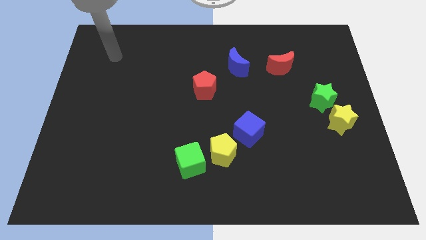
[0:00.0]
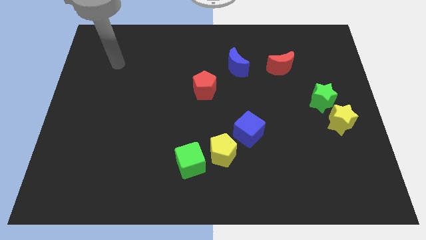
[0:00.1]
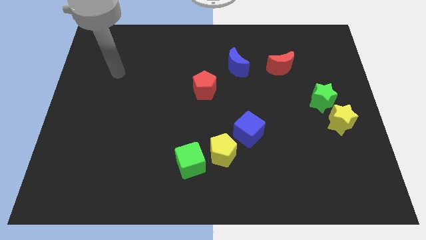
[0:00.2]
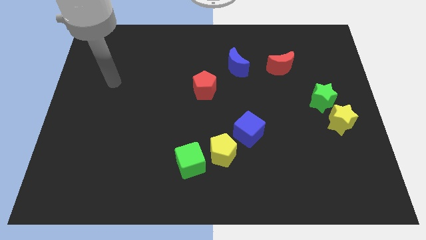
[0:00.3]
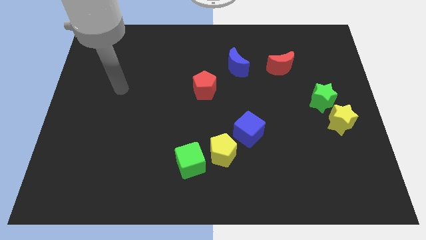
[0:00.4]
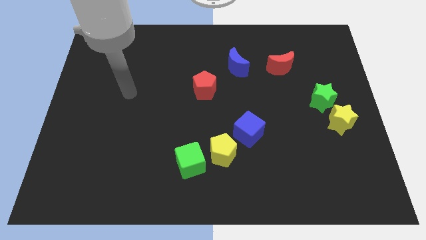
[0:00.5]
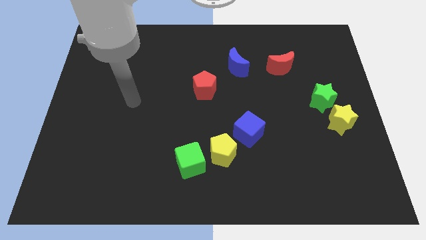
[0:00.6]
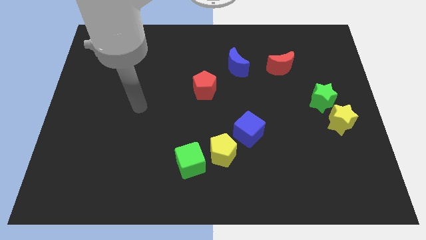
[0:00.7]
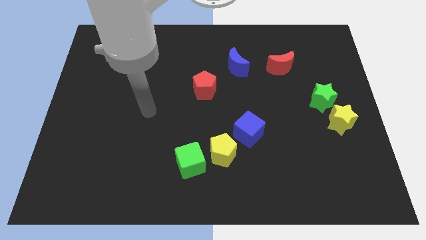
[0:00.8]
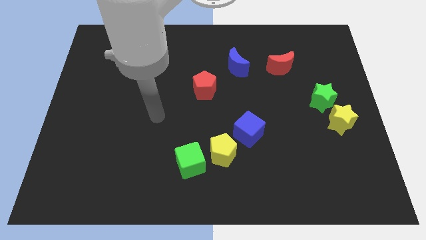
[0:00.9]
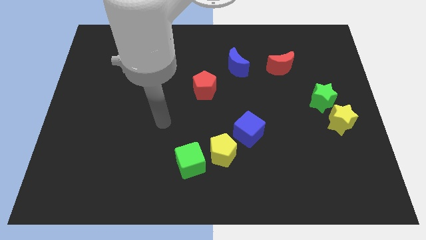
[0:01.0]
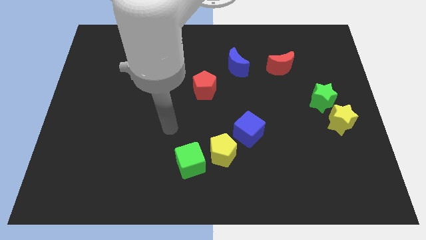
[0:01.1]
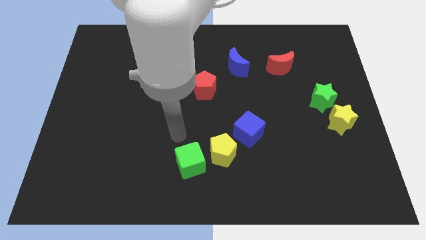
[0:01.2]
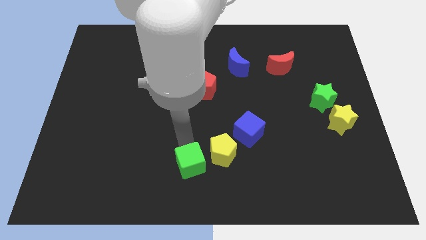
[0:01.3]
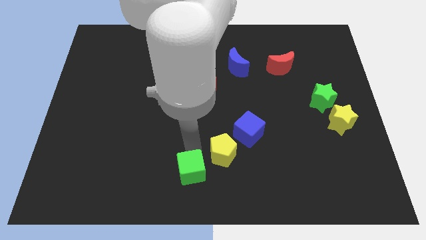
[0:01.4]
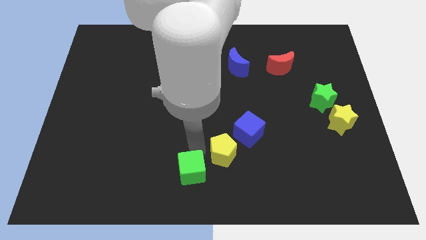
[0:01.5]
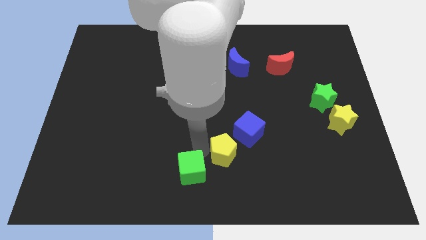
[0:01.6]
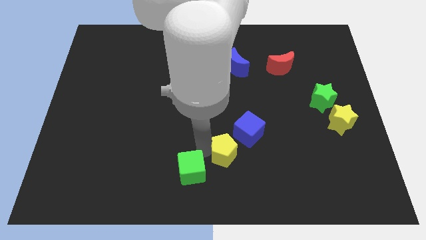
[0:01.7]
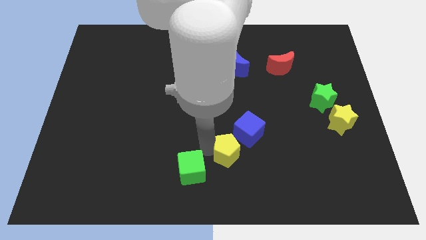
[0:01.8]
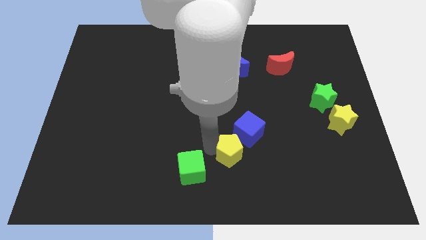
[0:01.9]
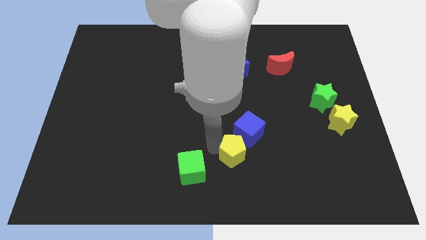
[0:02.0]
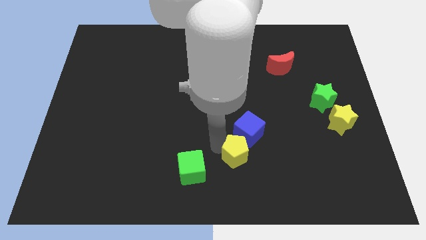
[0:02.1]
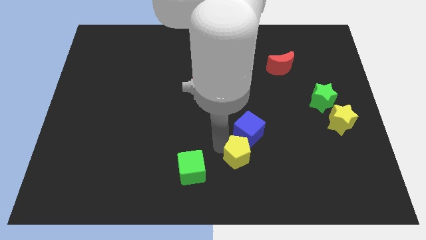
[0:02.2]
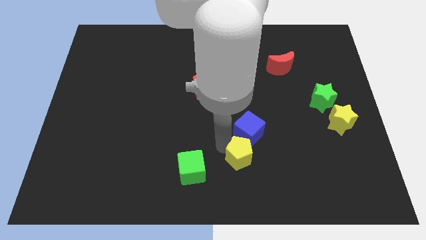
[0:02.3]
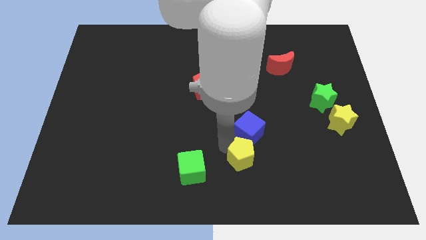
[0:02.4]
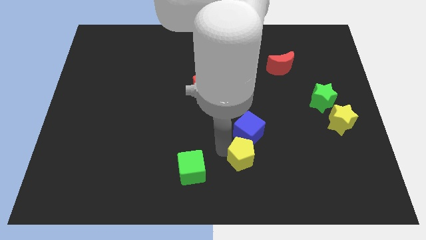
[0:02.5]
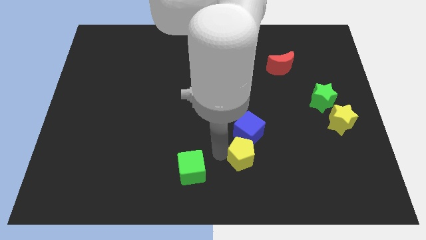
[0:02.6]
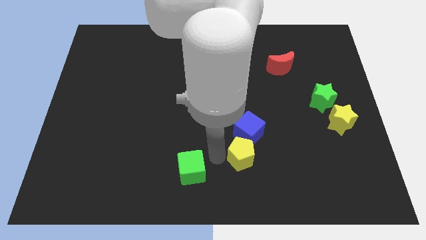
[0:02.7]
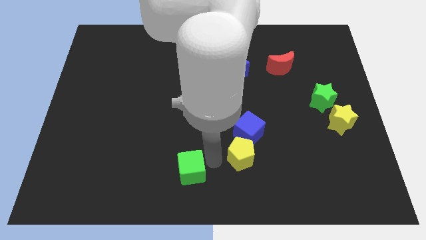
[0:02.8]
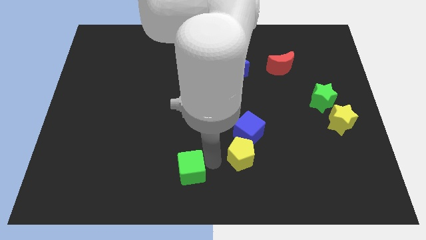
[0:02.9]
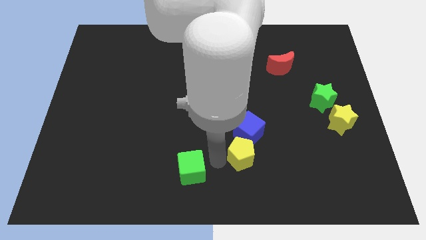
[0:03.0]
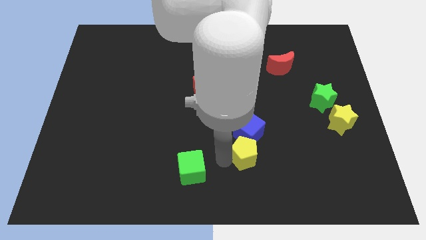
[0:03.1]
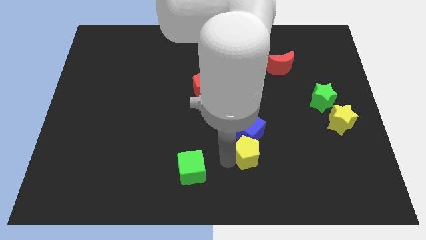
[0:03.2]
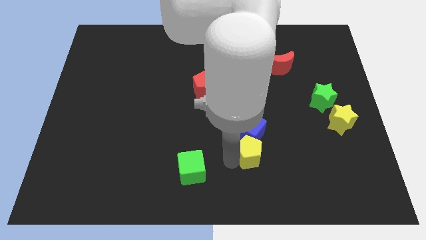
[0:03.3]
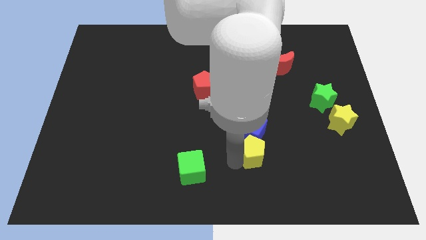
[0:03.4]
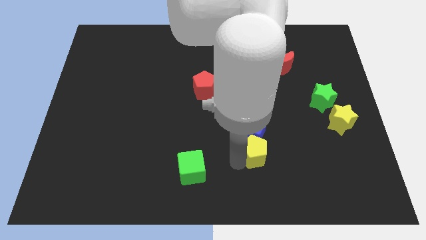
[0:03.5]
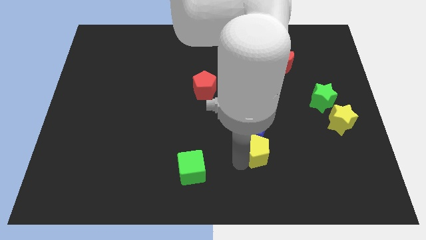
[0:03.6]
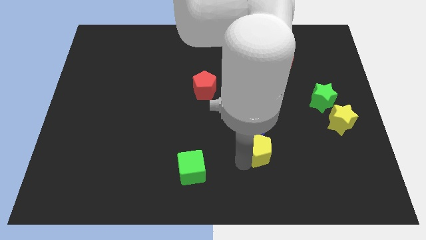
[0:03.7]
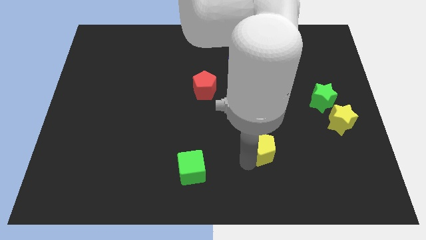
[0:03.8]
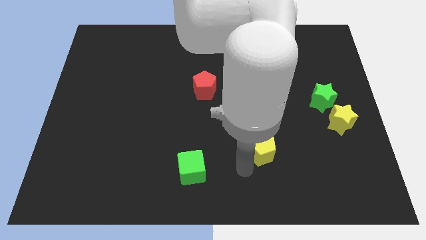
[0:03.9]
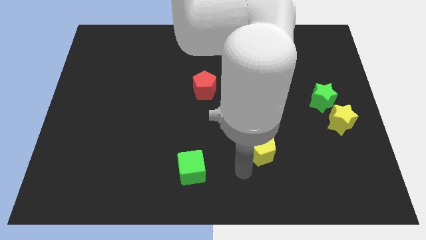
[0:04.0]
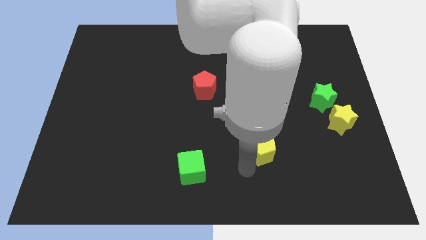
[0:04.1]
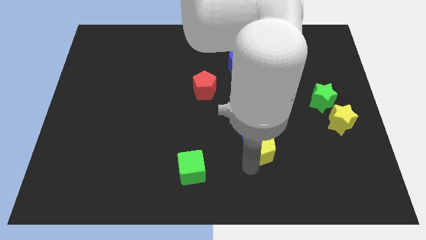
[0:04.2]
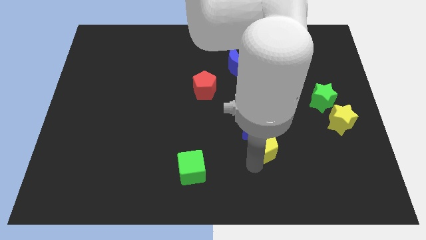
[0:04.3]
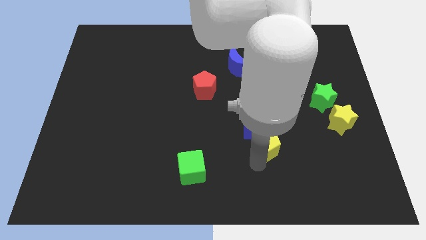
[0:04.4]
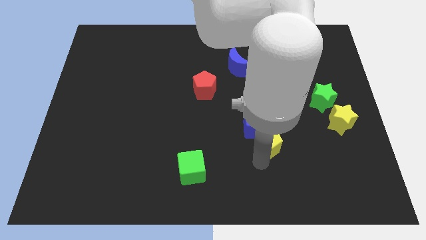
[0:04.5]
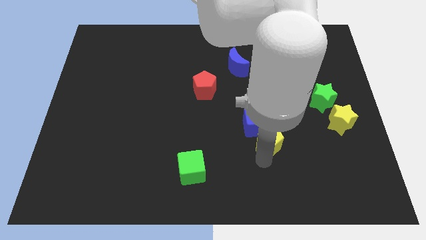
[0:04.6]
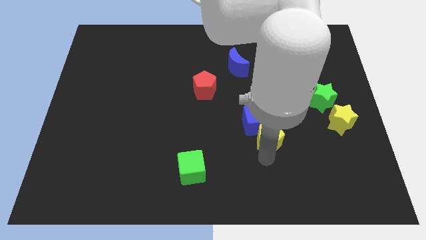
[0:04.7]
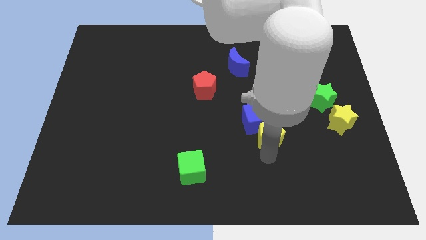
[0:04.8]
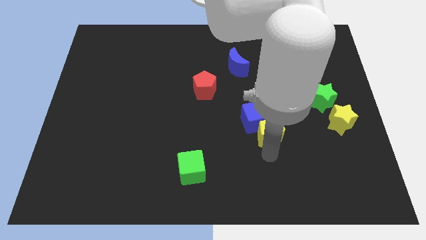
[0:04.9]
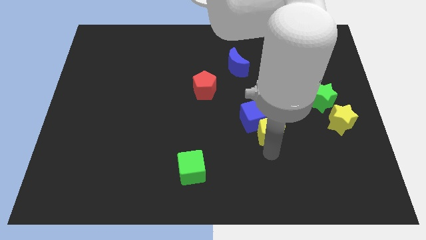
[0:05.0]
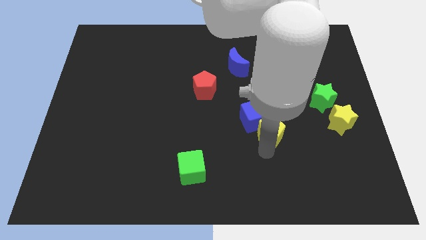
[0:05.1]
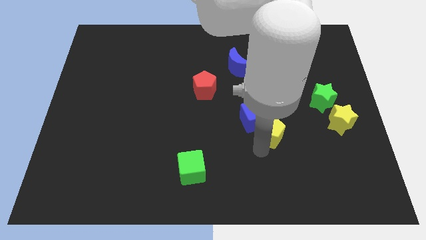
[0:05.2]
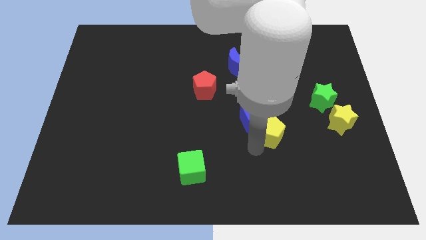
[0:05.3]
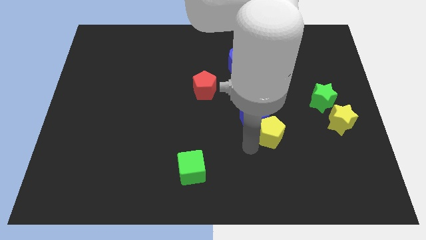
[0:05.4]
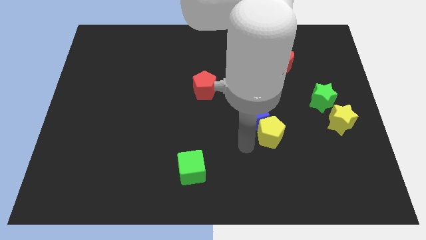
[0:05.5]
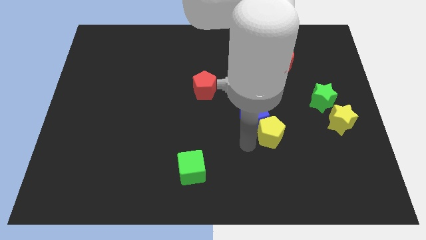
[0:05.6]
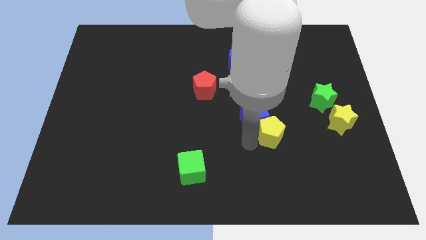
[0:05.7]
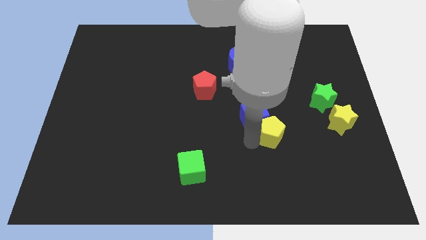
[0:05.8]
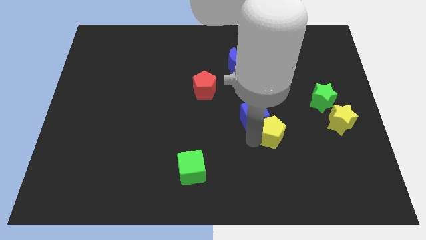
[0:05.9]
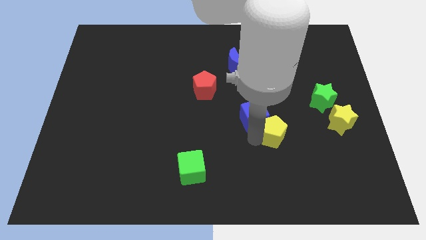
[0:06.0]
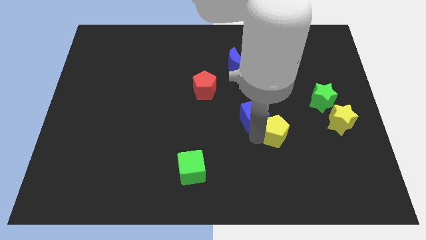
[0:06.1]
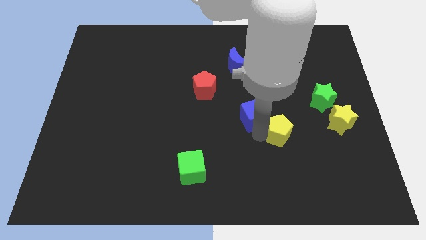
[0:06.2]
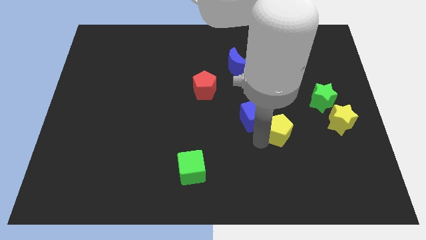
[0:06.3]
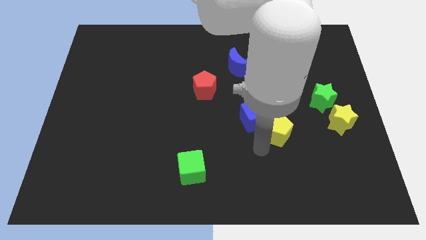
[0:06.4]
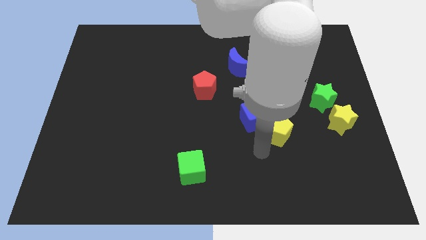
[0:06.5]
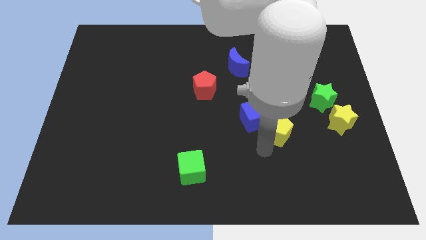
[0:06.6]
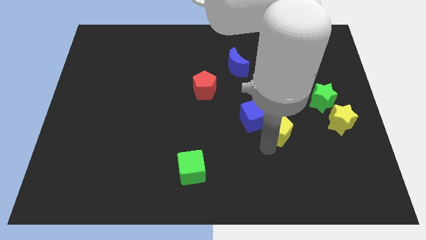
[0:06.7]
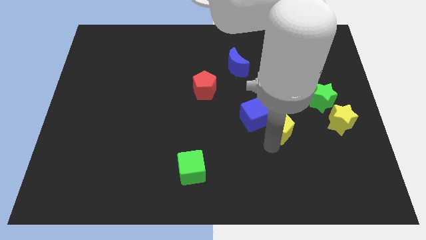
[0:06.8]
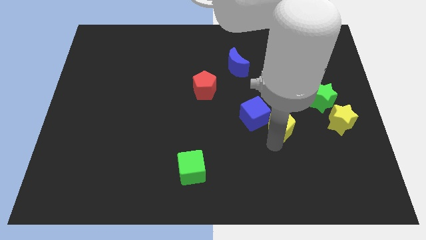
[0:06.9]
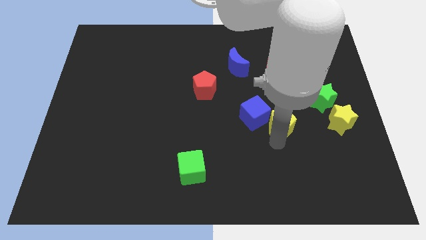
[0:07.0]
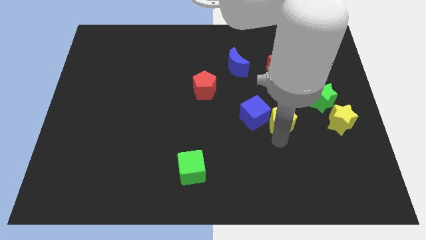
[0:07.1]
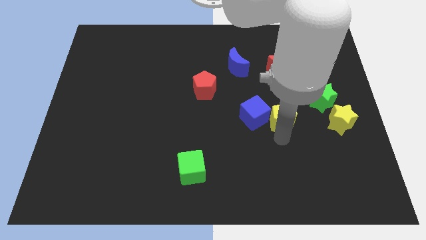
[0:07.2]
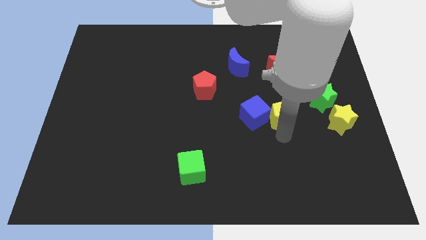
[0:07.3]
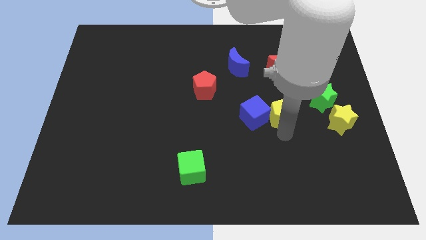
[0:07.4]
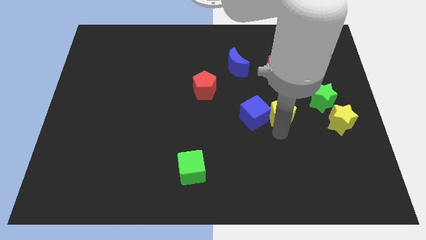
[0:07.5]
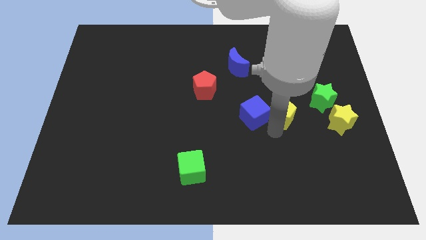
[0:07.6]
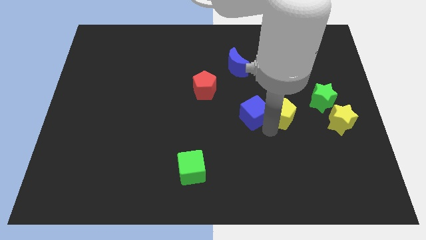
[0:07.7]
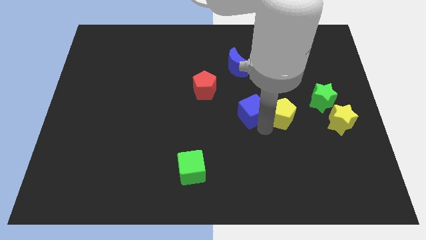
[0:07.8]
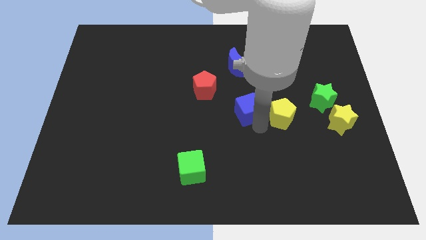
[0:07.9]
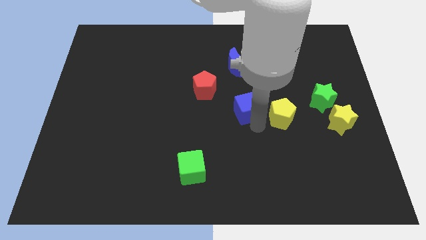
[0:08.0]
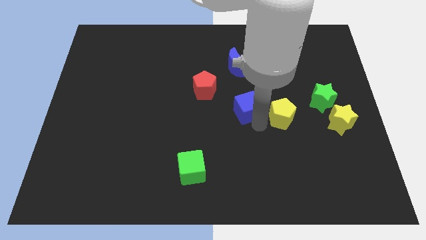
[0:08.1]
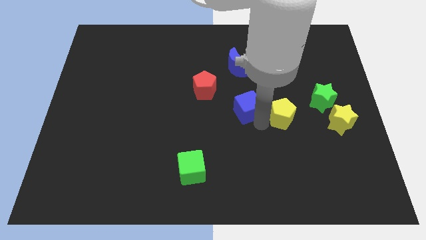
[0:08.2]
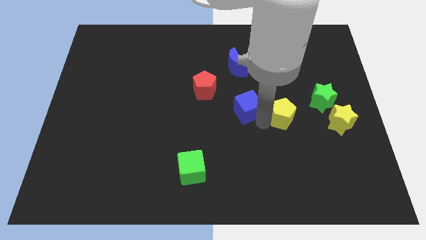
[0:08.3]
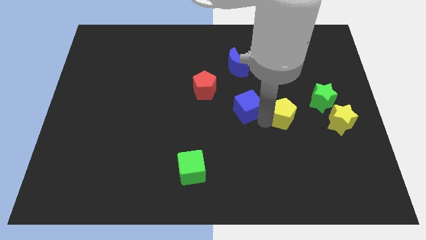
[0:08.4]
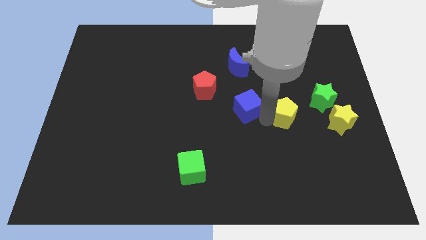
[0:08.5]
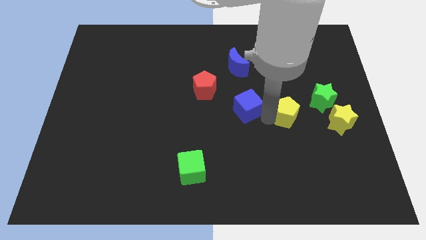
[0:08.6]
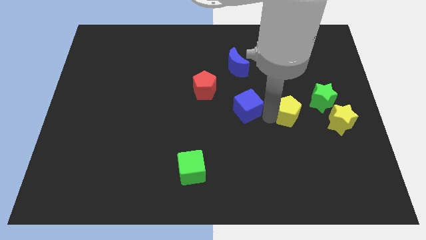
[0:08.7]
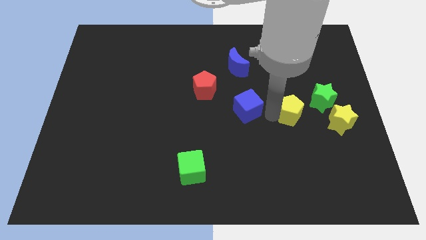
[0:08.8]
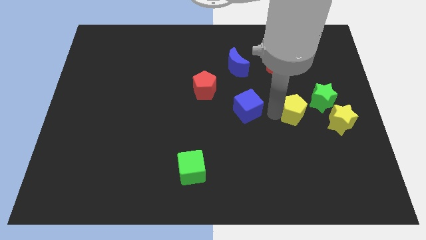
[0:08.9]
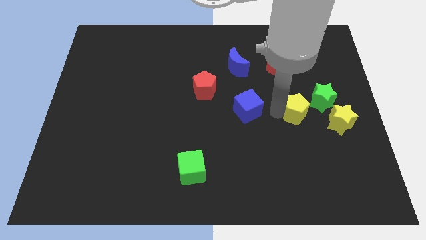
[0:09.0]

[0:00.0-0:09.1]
put the yellow pentagon diagonally up and to the left of the yellow star
